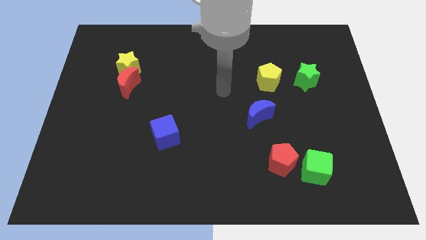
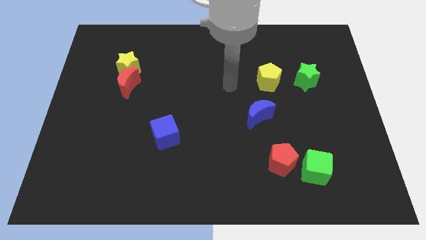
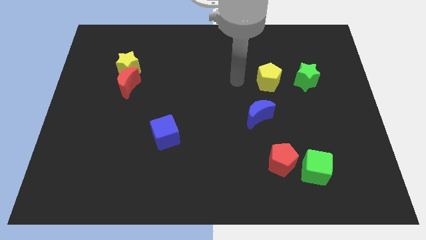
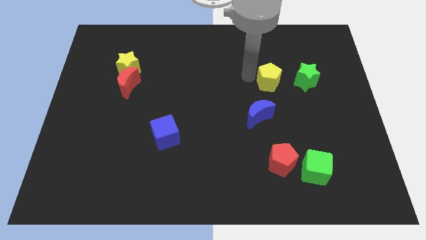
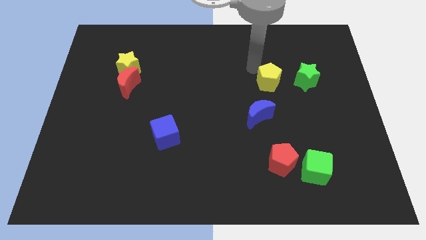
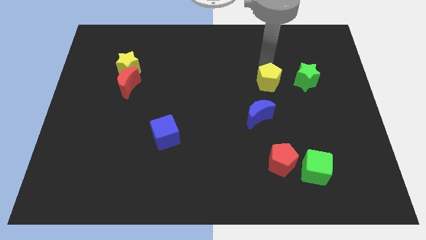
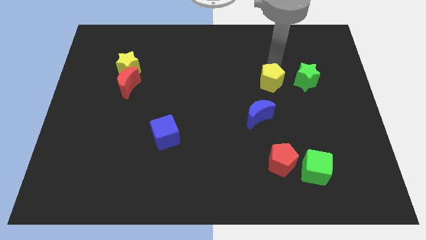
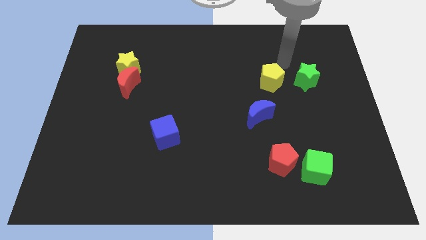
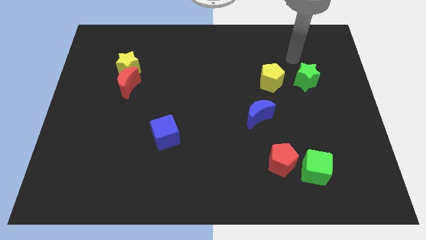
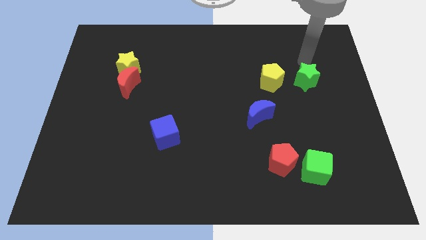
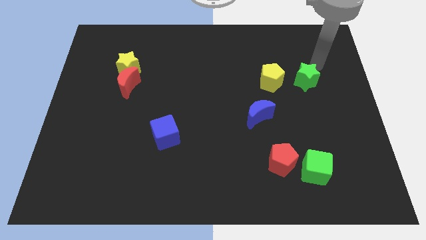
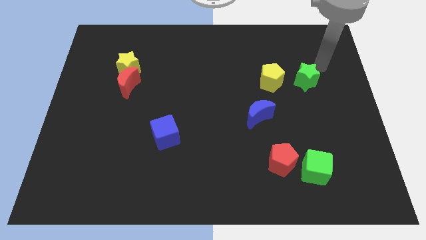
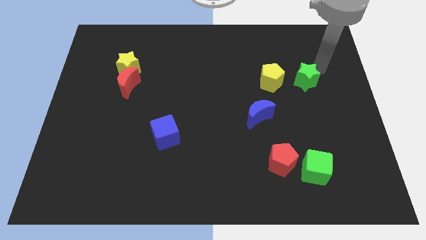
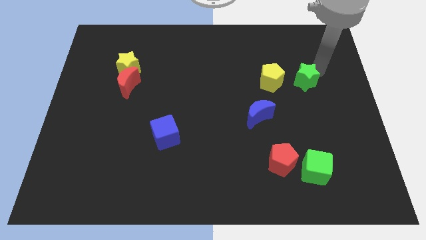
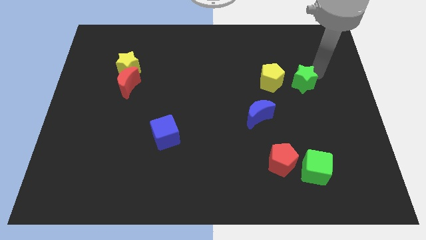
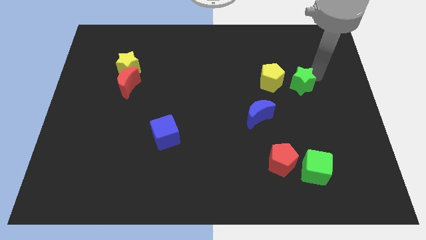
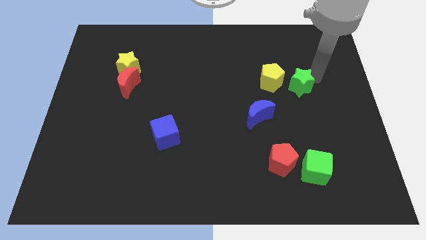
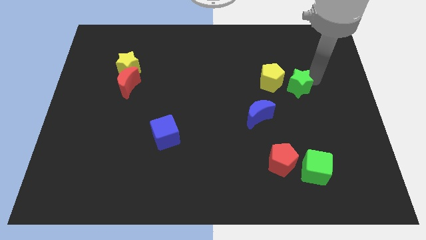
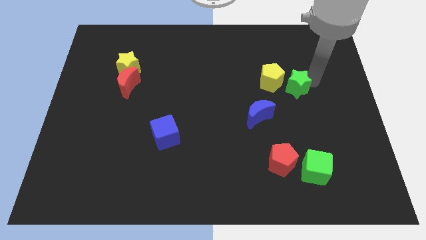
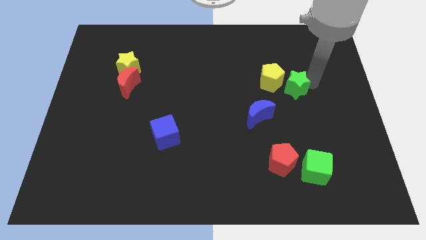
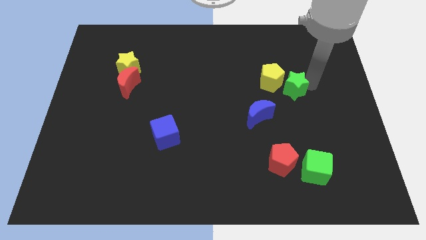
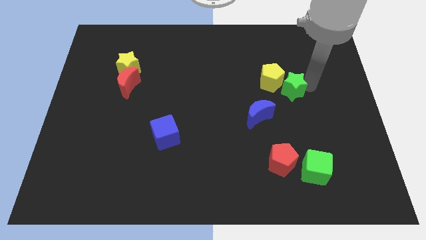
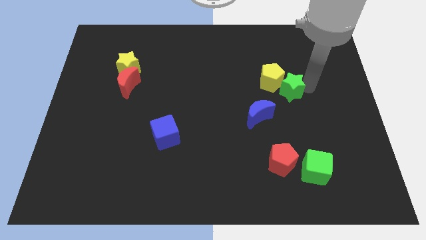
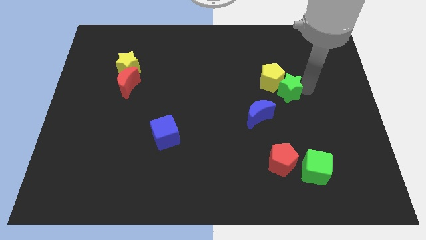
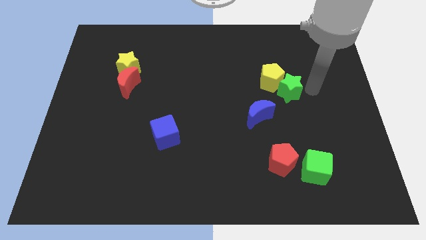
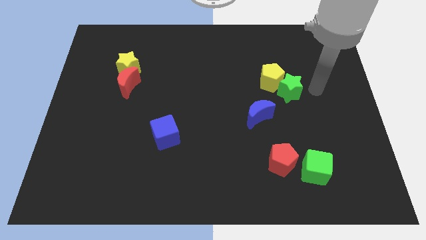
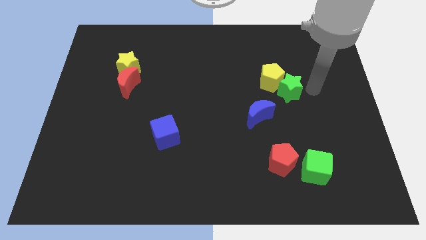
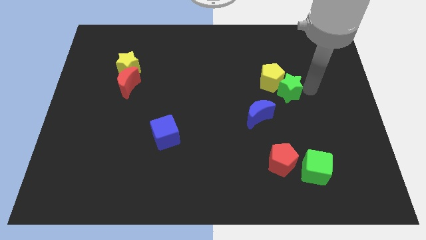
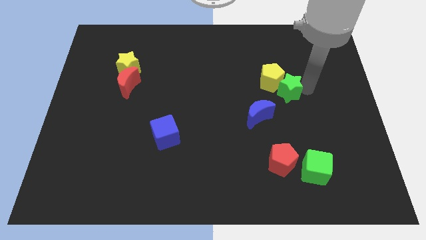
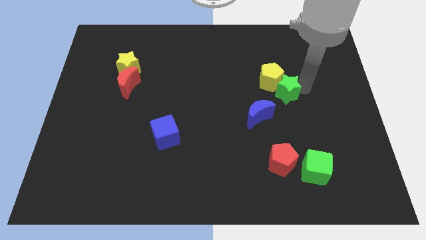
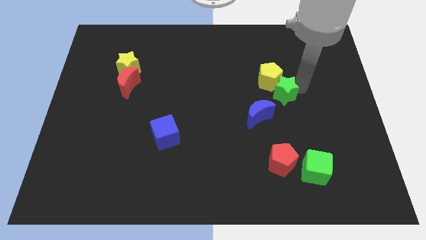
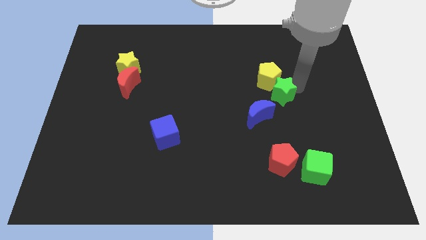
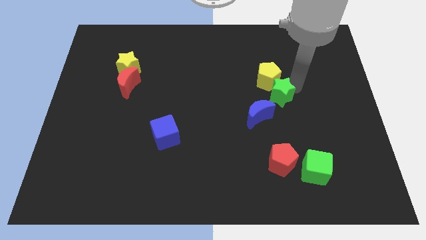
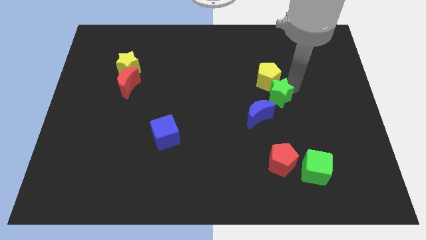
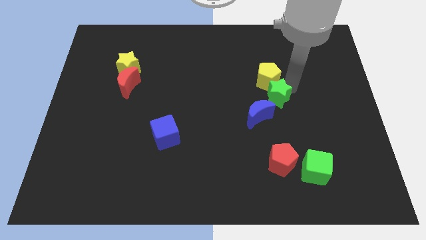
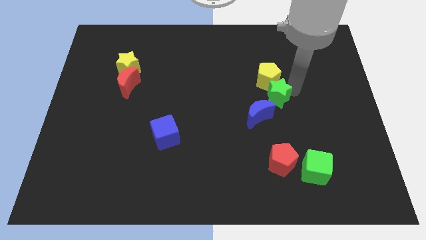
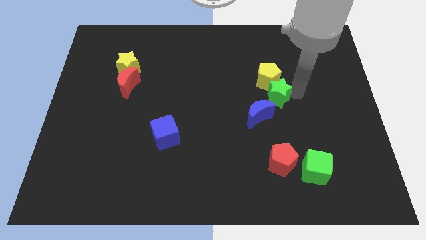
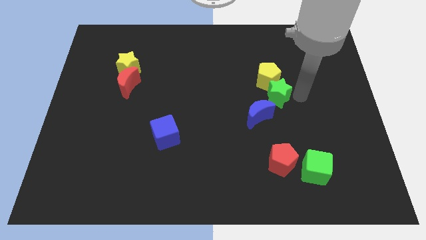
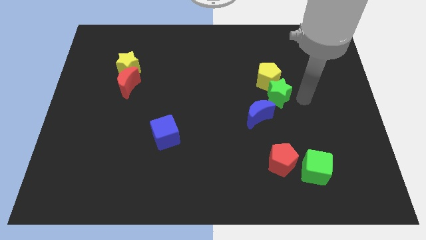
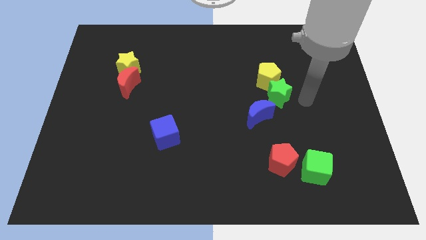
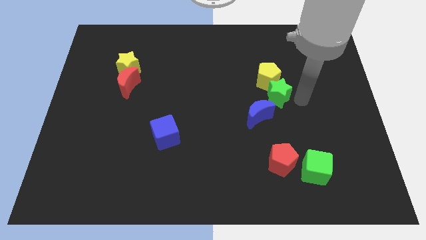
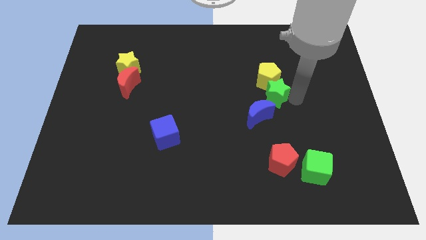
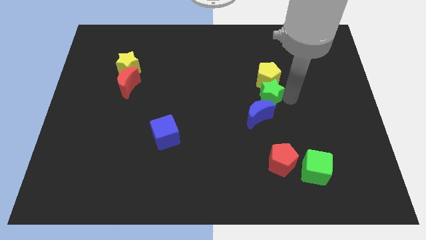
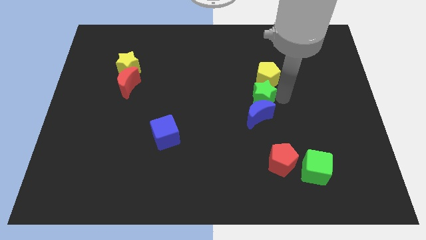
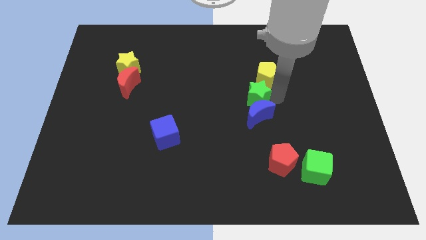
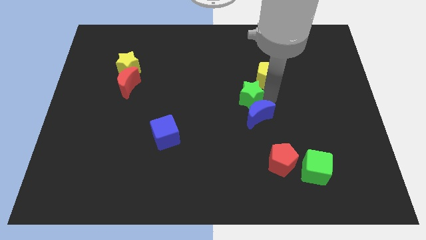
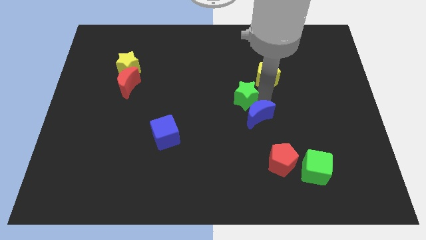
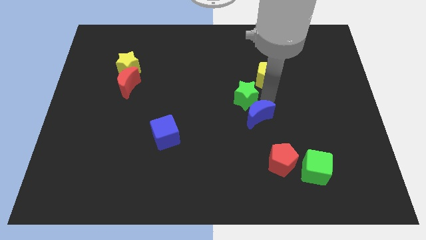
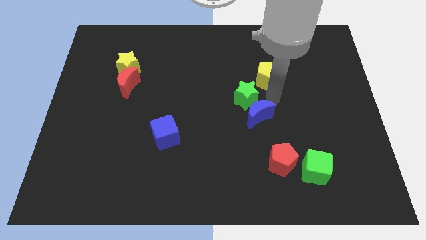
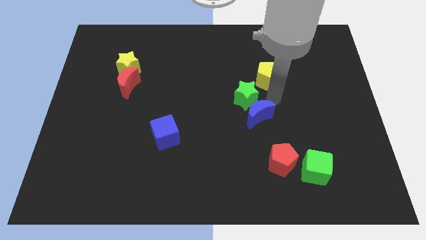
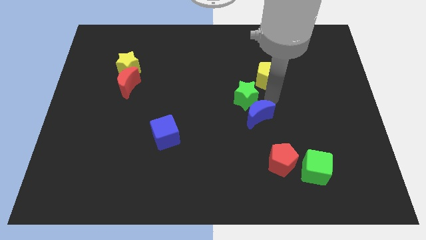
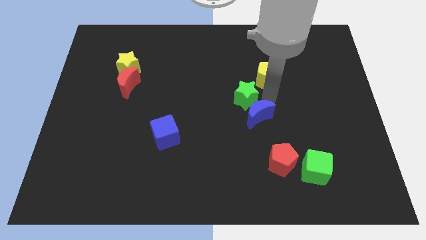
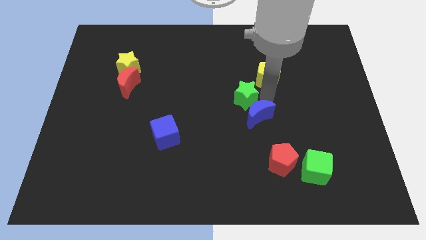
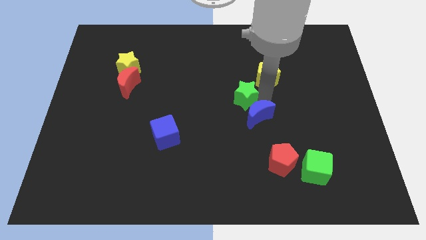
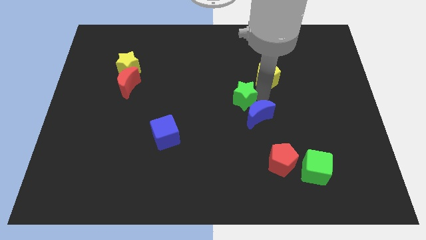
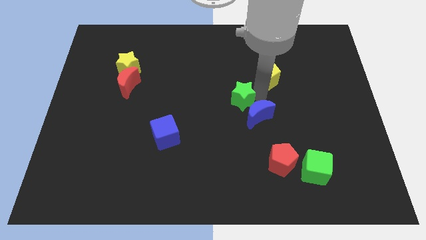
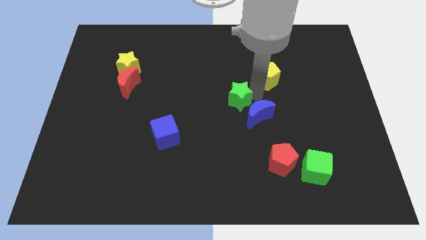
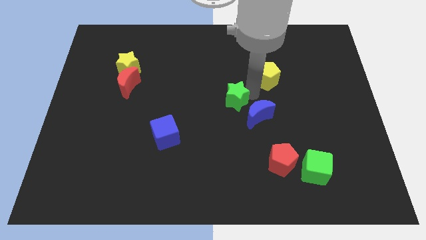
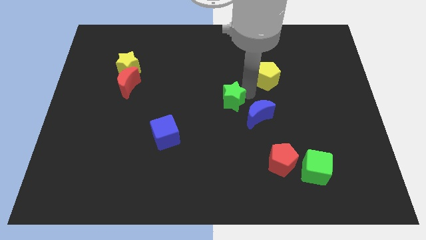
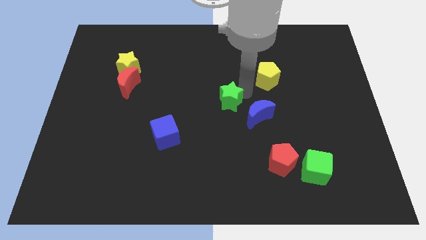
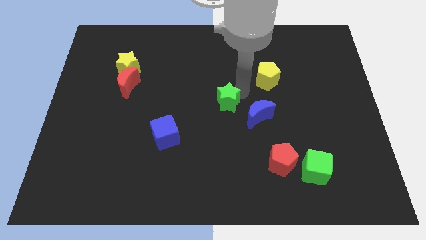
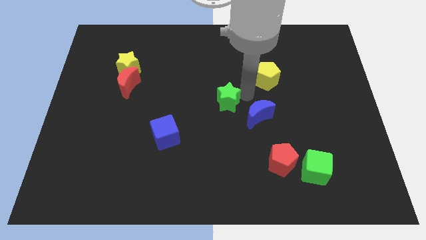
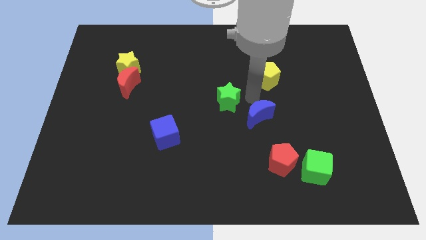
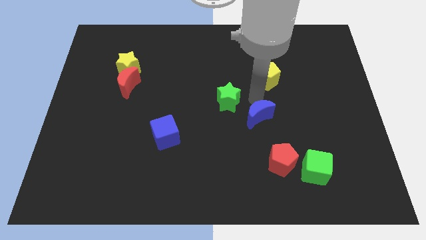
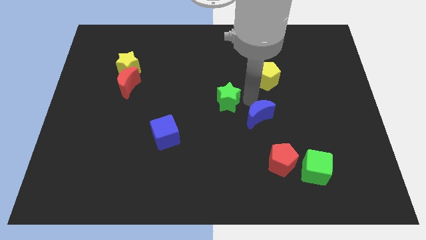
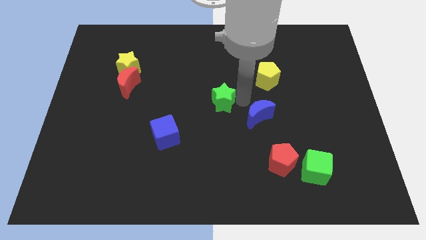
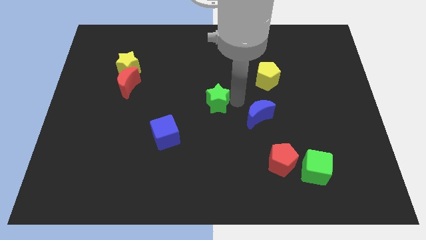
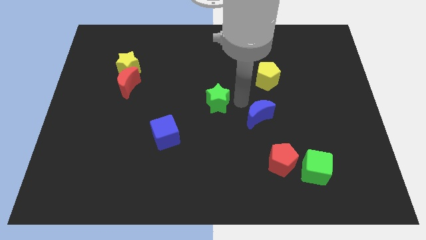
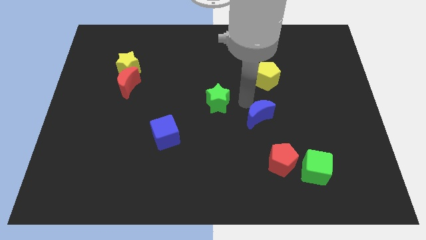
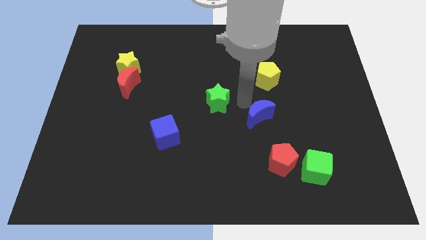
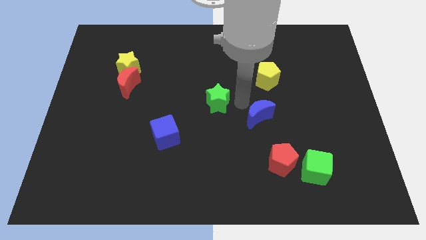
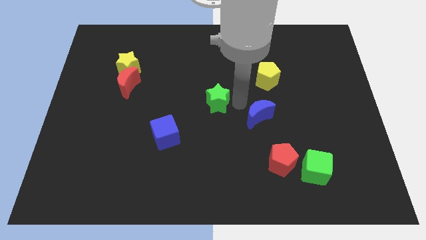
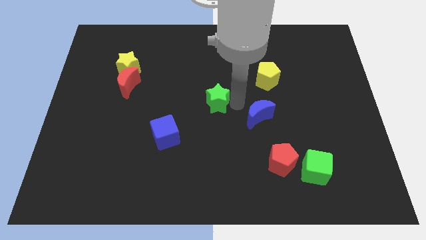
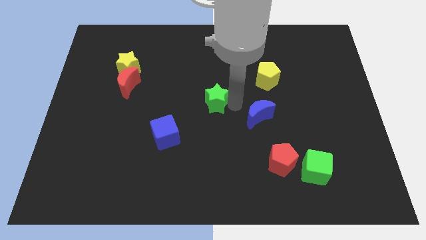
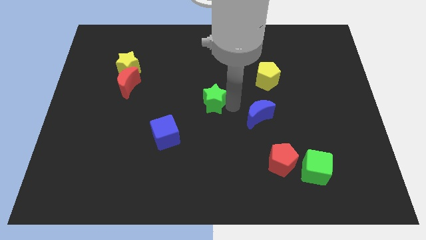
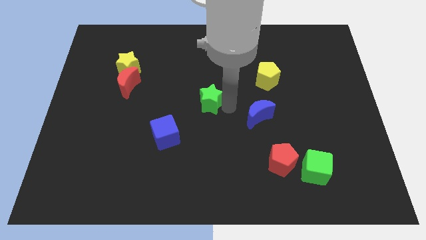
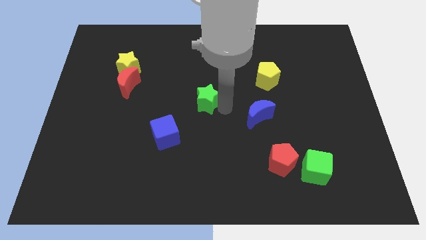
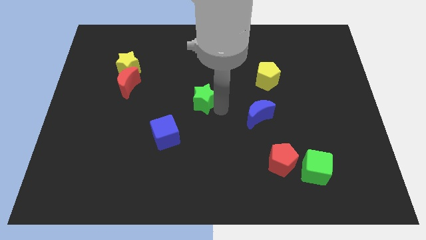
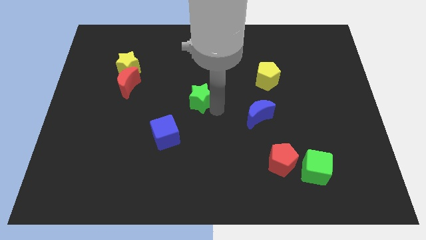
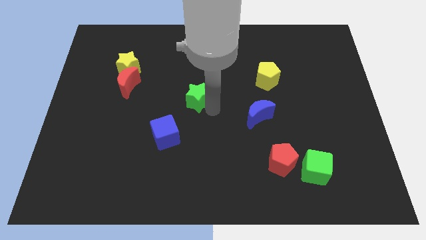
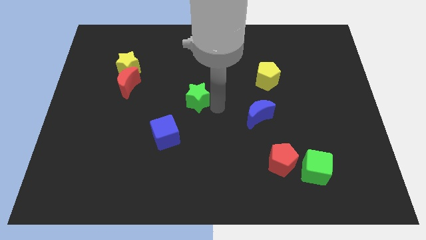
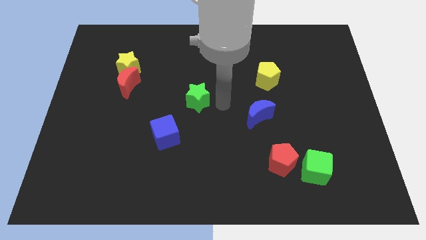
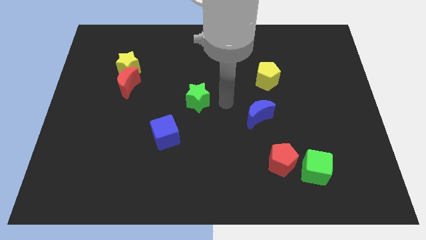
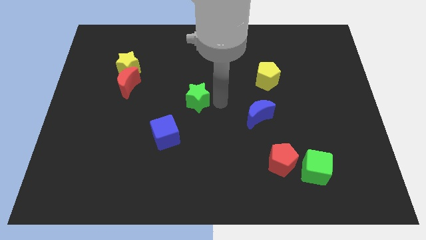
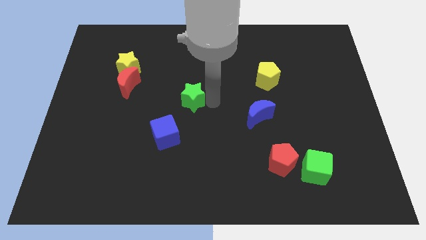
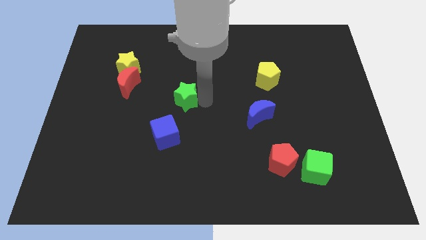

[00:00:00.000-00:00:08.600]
move the green star to the top side of the blue cube
